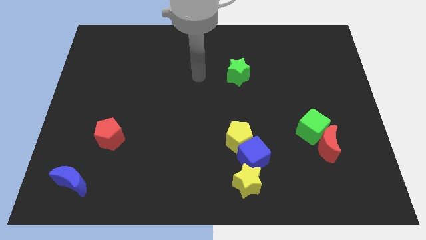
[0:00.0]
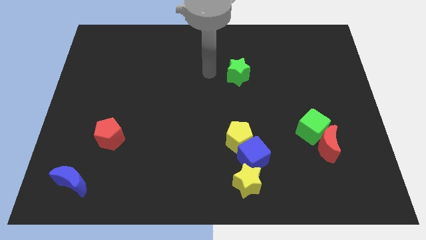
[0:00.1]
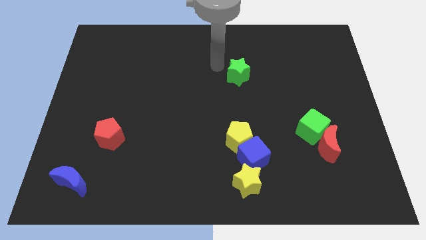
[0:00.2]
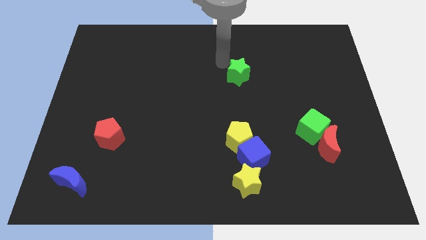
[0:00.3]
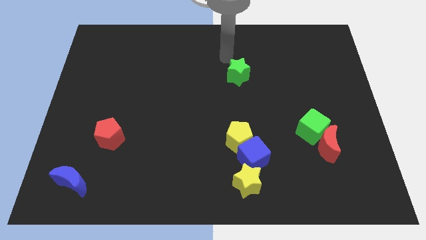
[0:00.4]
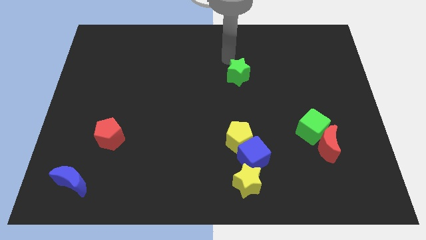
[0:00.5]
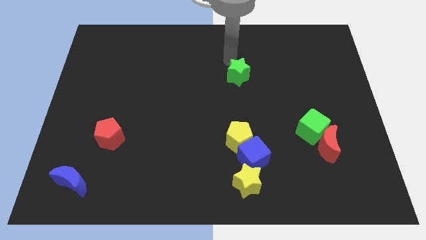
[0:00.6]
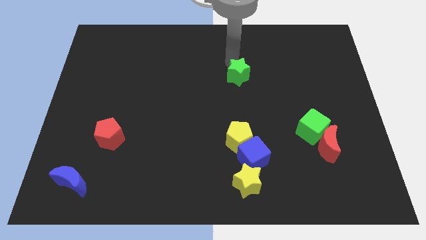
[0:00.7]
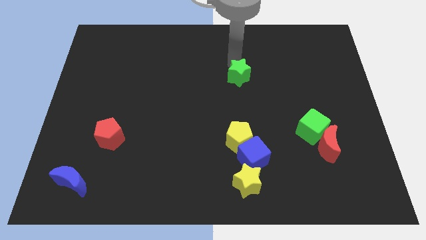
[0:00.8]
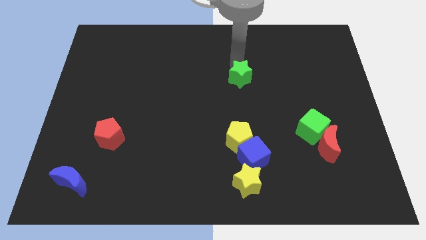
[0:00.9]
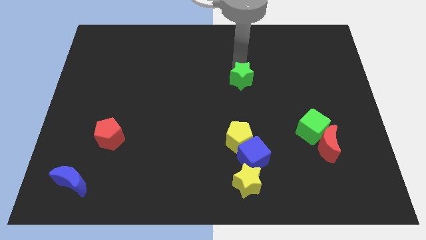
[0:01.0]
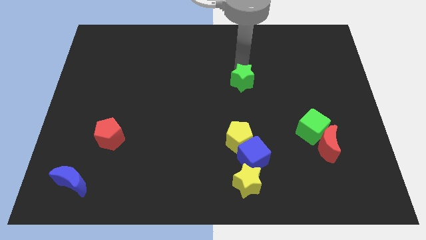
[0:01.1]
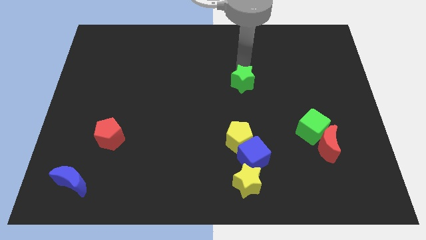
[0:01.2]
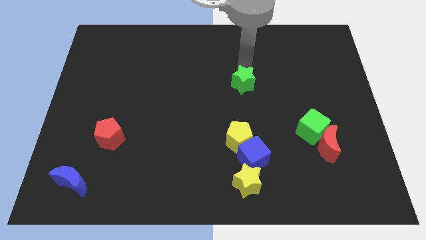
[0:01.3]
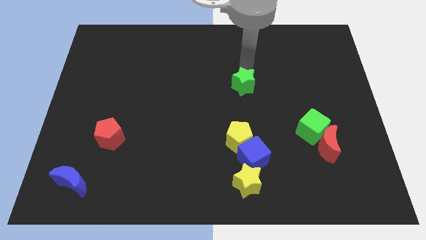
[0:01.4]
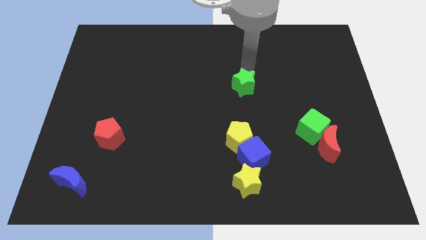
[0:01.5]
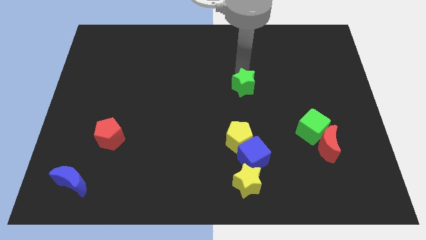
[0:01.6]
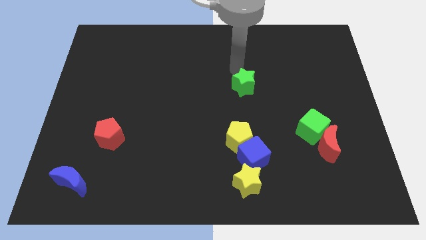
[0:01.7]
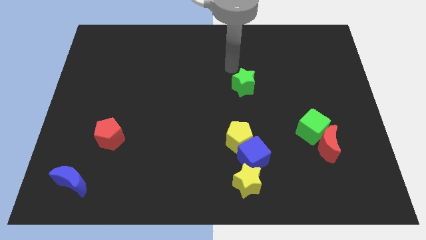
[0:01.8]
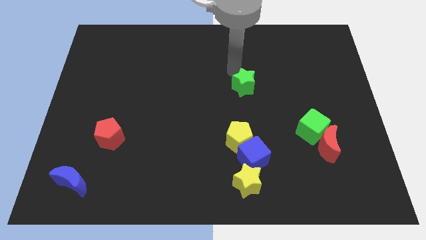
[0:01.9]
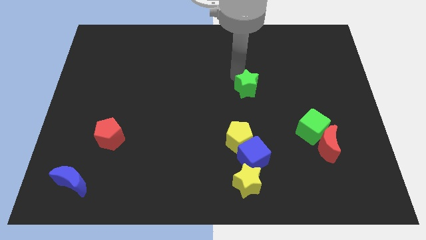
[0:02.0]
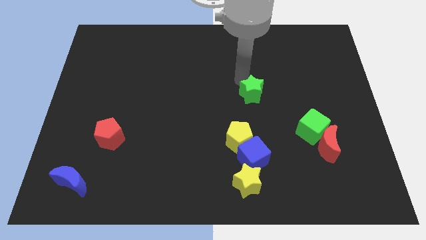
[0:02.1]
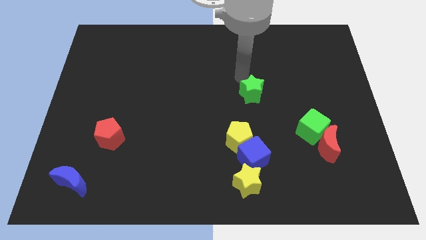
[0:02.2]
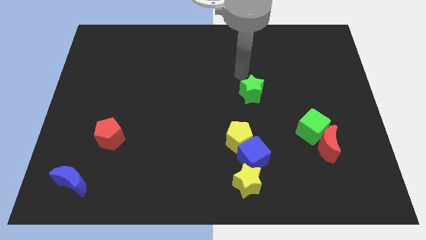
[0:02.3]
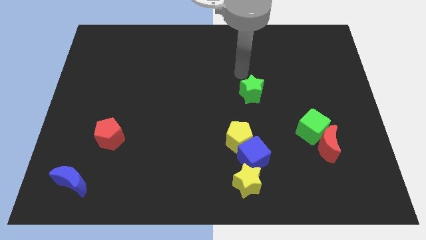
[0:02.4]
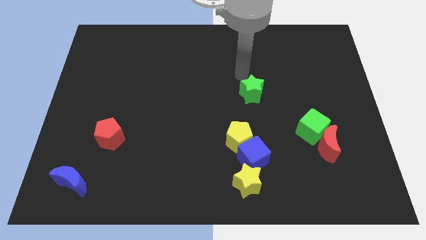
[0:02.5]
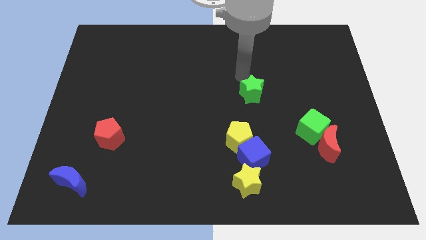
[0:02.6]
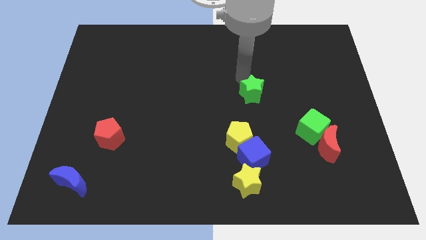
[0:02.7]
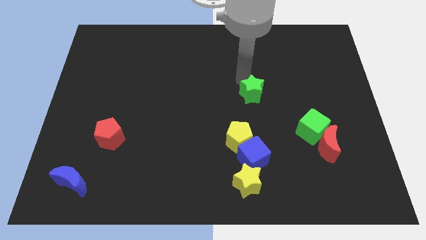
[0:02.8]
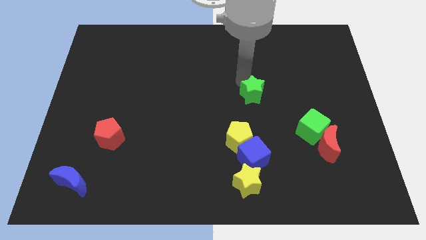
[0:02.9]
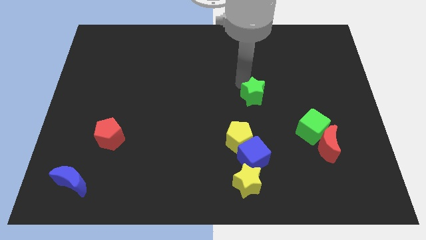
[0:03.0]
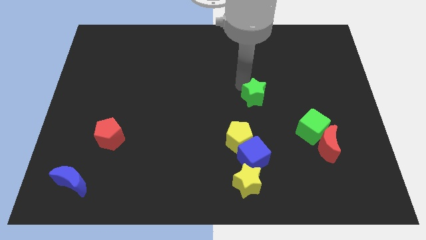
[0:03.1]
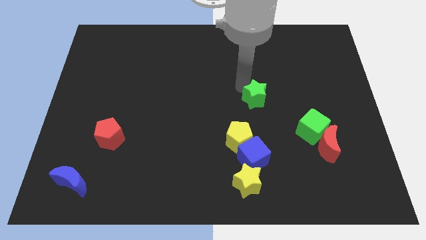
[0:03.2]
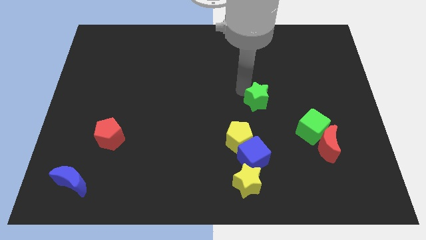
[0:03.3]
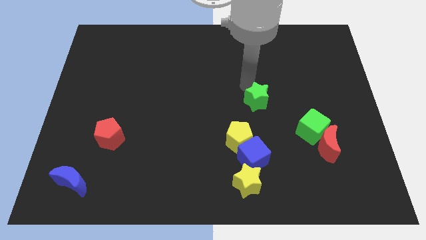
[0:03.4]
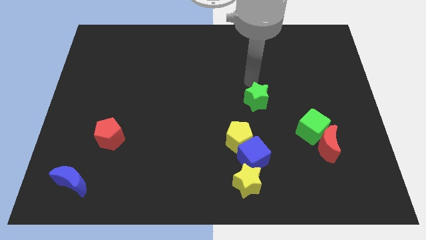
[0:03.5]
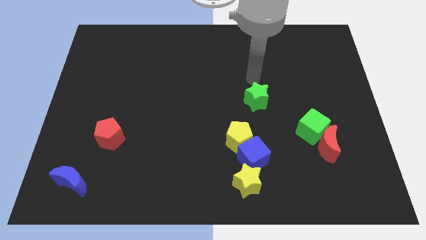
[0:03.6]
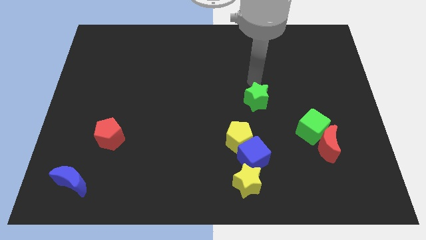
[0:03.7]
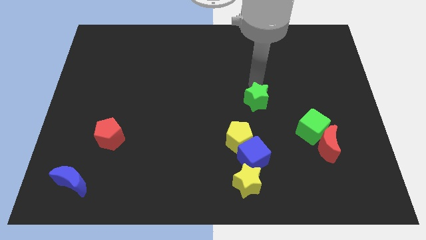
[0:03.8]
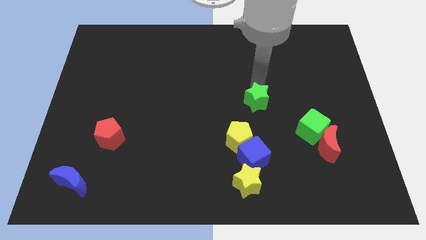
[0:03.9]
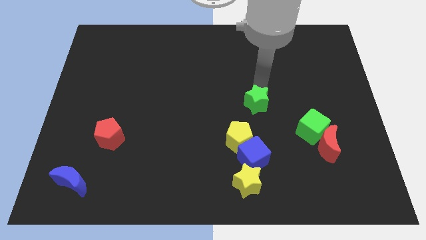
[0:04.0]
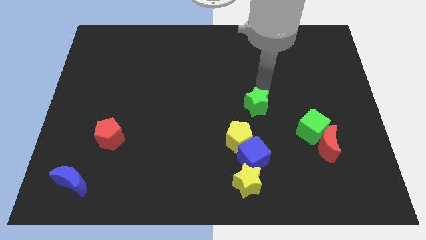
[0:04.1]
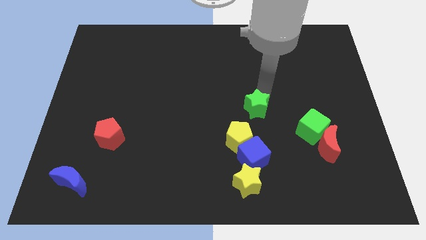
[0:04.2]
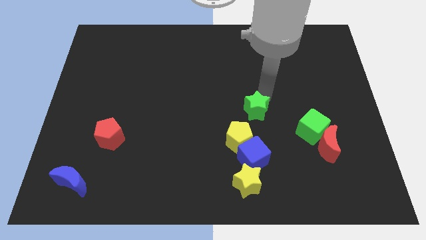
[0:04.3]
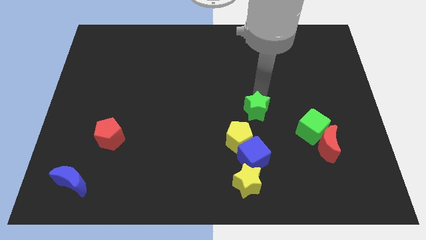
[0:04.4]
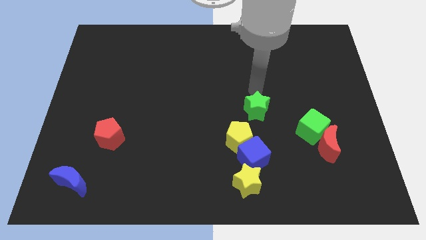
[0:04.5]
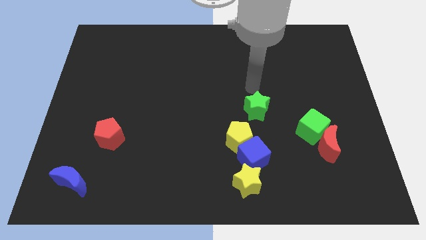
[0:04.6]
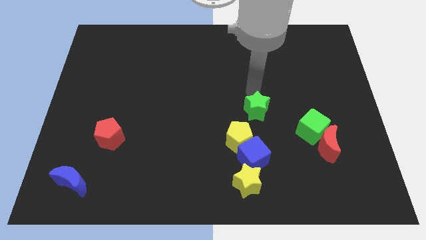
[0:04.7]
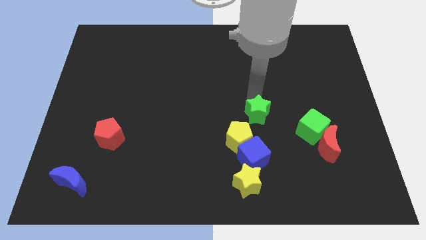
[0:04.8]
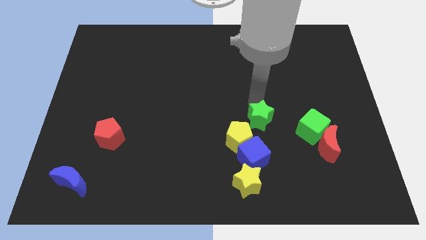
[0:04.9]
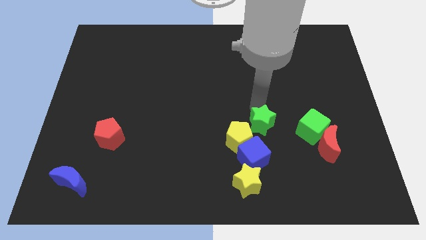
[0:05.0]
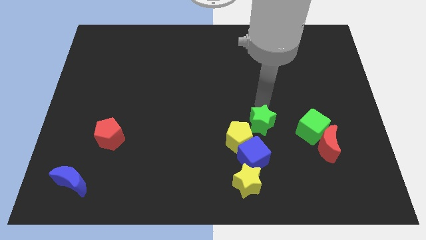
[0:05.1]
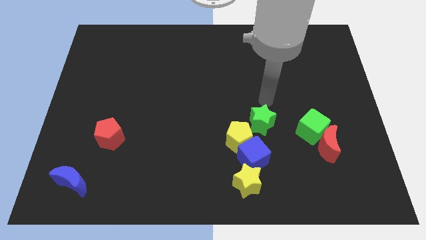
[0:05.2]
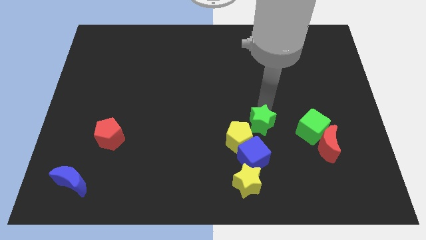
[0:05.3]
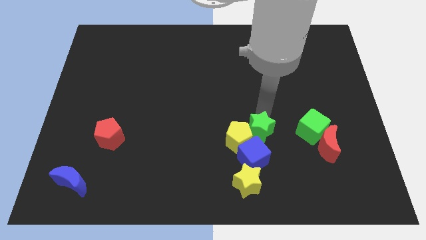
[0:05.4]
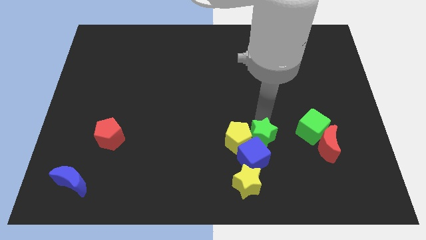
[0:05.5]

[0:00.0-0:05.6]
put the green star next to the blue cube
